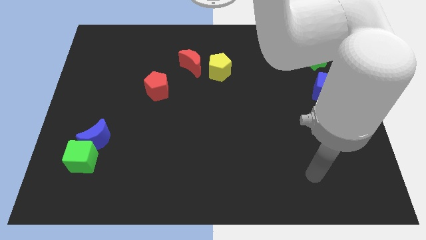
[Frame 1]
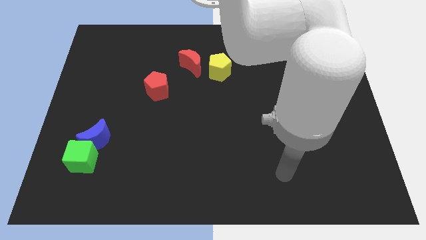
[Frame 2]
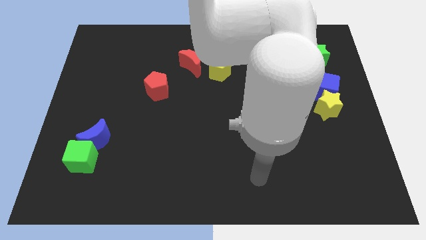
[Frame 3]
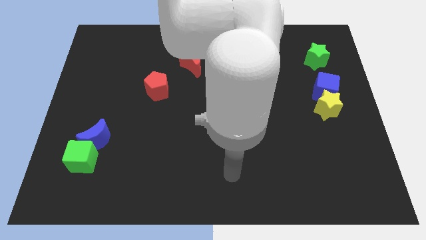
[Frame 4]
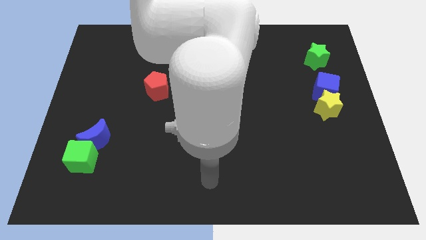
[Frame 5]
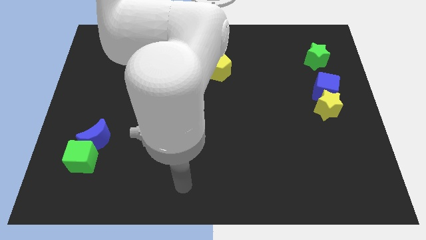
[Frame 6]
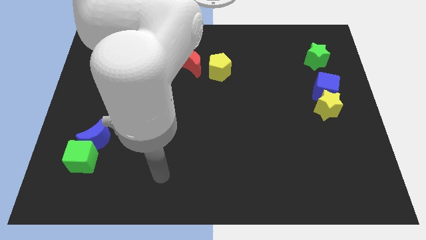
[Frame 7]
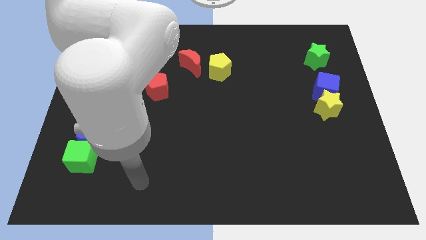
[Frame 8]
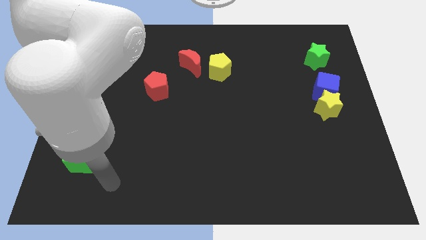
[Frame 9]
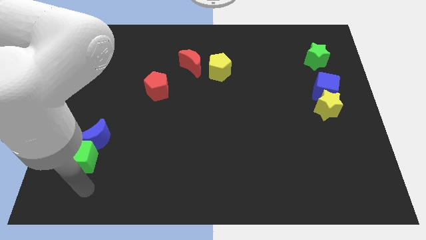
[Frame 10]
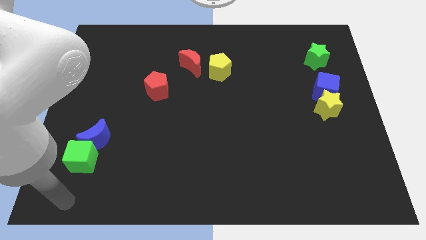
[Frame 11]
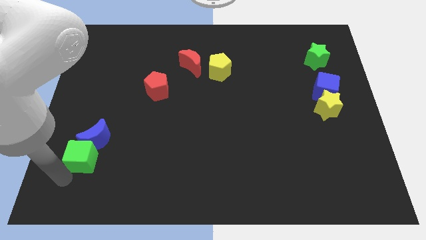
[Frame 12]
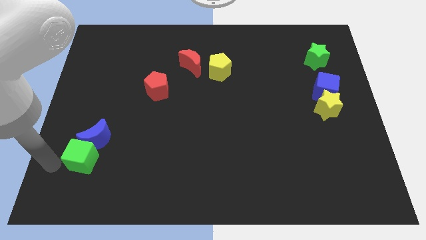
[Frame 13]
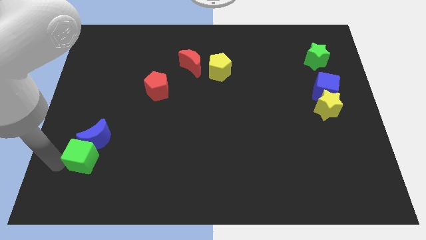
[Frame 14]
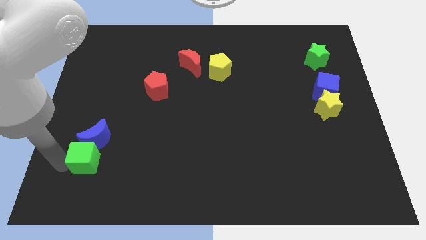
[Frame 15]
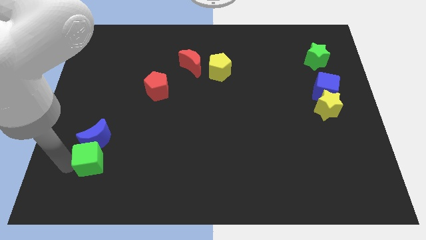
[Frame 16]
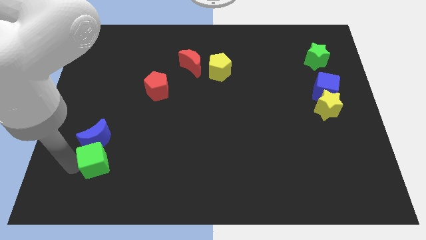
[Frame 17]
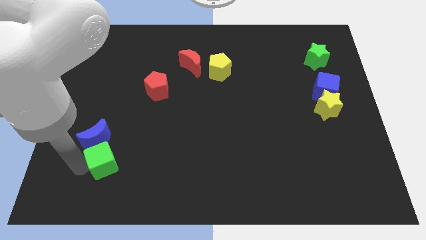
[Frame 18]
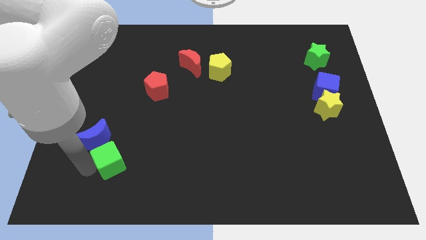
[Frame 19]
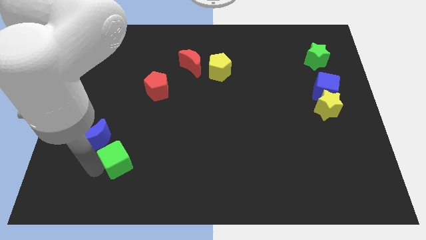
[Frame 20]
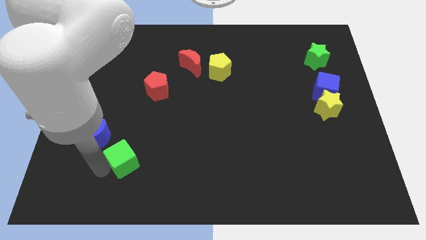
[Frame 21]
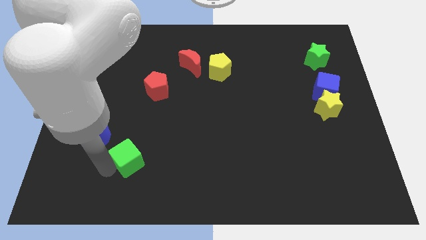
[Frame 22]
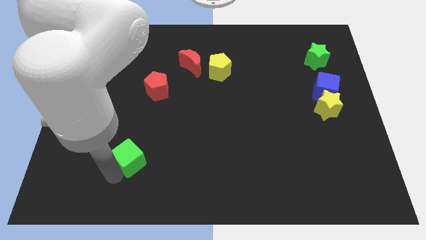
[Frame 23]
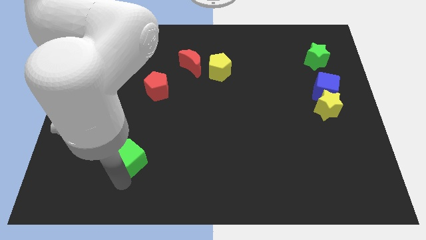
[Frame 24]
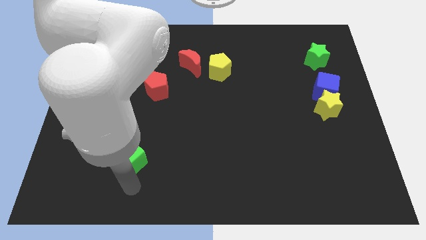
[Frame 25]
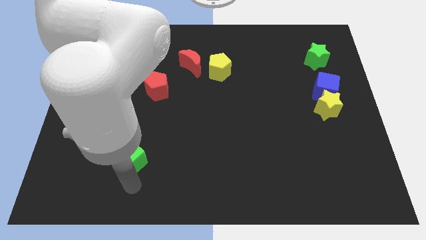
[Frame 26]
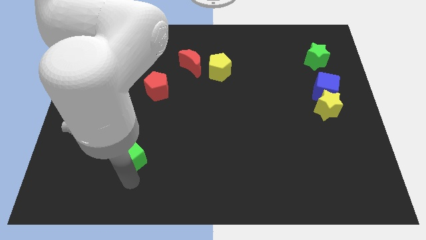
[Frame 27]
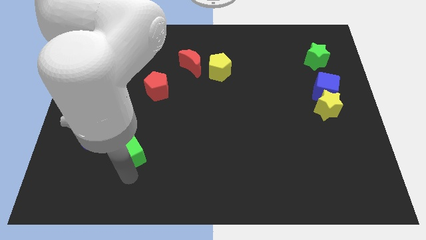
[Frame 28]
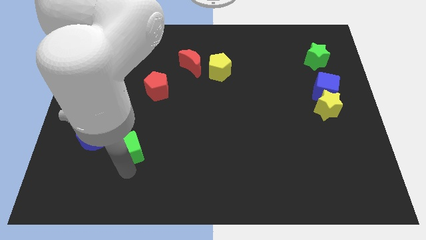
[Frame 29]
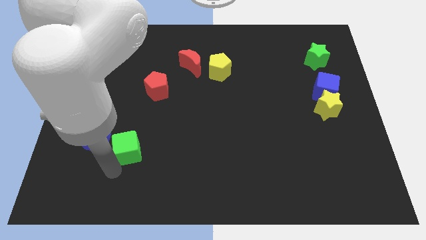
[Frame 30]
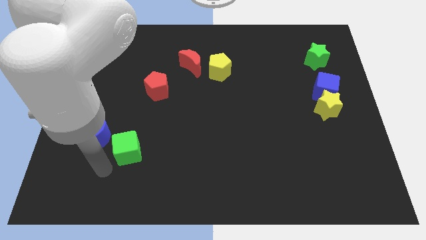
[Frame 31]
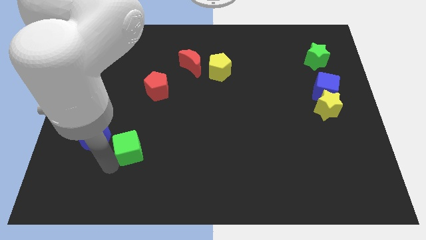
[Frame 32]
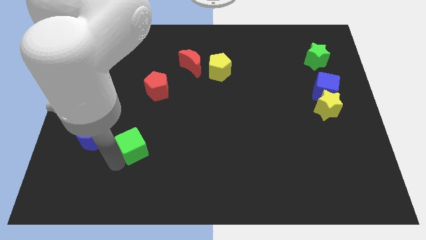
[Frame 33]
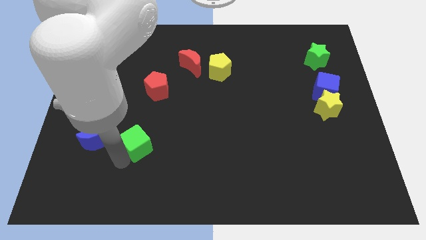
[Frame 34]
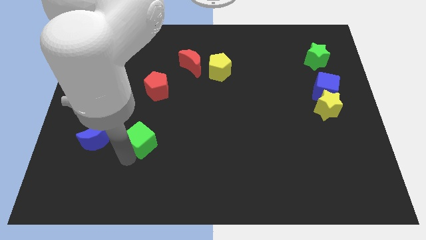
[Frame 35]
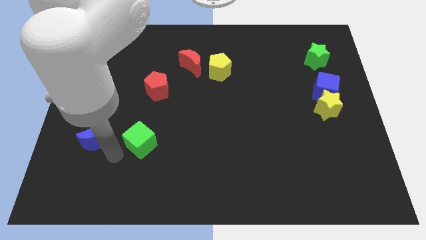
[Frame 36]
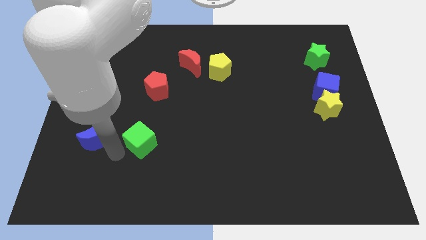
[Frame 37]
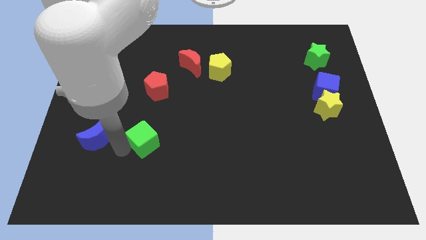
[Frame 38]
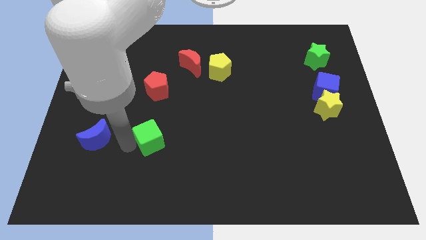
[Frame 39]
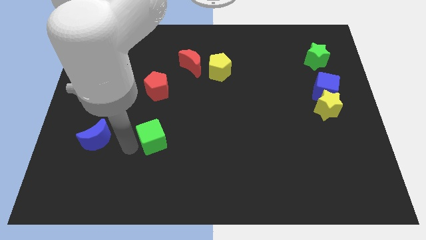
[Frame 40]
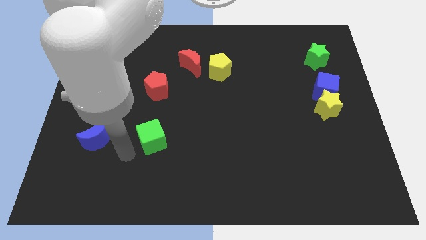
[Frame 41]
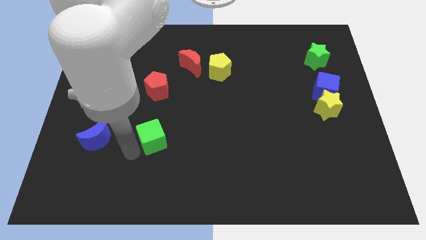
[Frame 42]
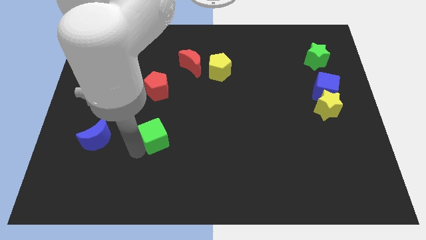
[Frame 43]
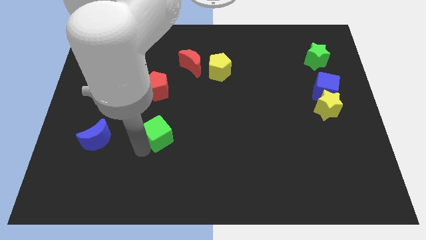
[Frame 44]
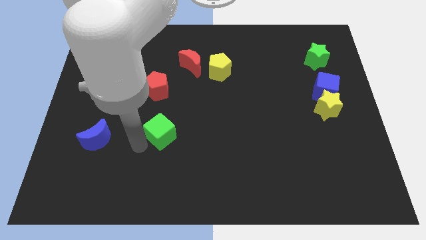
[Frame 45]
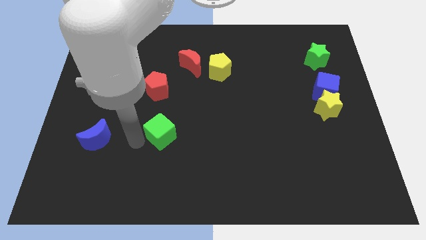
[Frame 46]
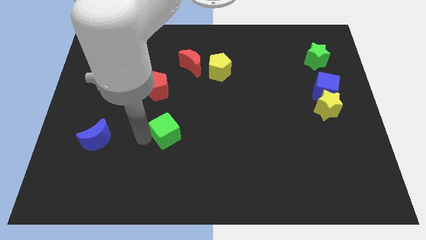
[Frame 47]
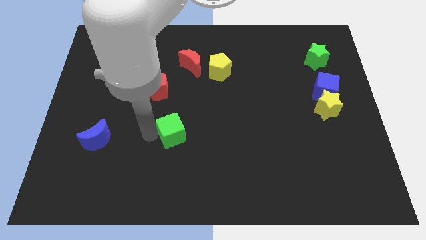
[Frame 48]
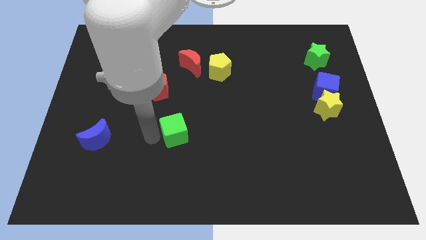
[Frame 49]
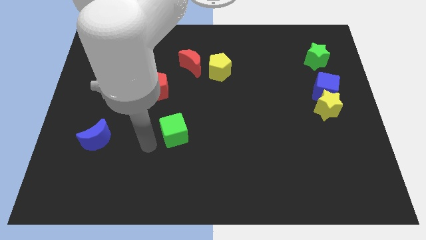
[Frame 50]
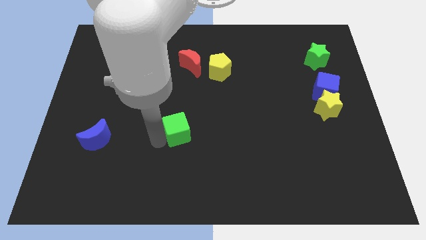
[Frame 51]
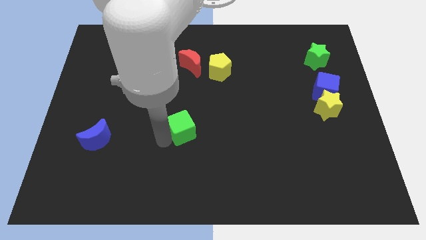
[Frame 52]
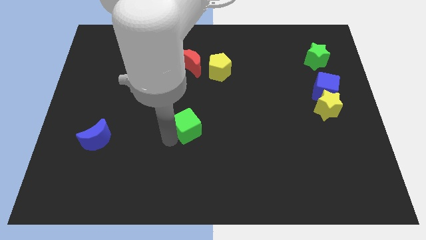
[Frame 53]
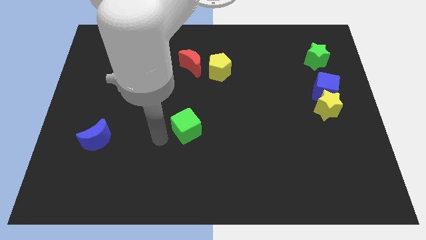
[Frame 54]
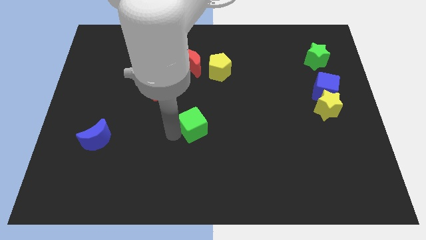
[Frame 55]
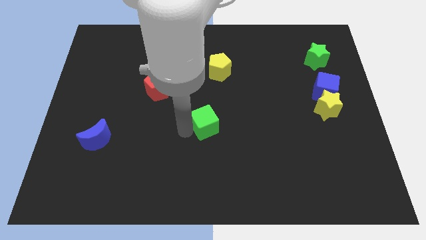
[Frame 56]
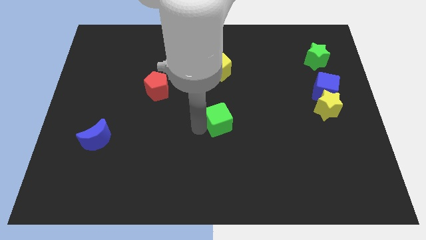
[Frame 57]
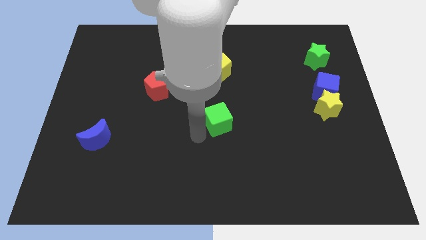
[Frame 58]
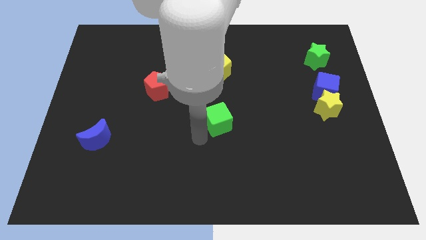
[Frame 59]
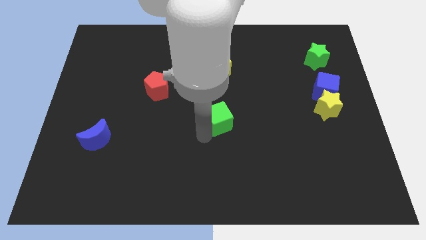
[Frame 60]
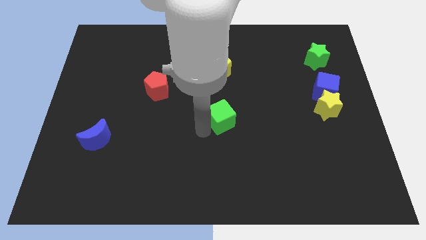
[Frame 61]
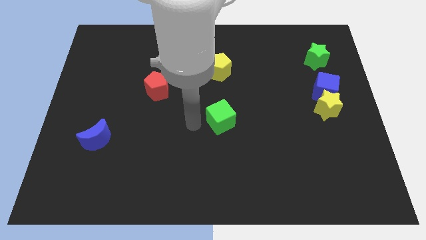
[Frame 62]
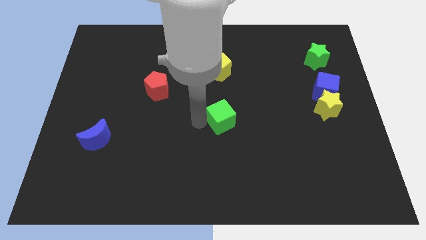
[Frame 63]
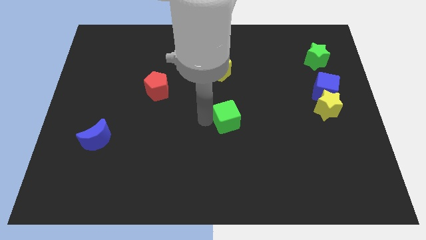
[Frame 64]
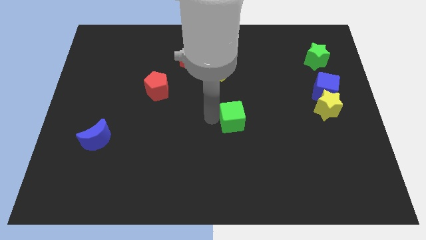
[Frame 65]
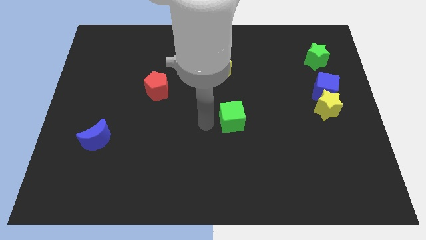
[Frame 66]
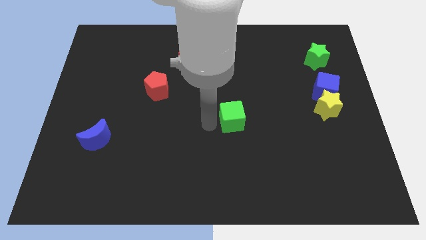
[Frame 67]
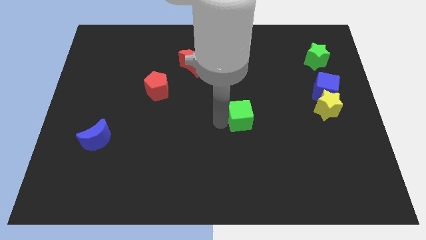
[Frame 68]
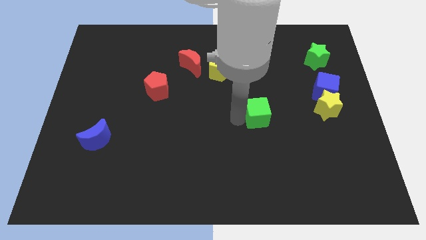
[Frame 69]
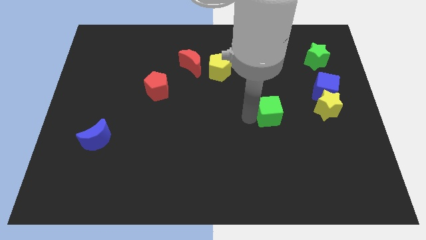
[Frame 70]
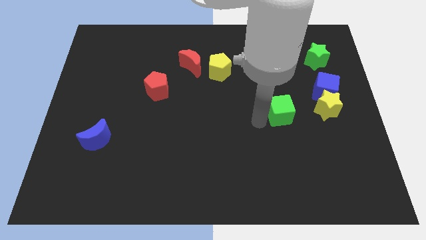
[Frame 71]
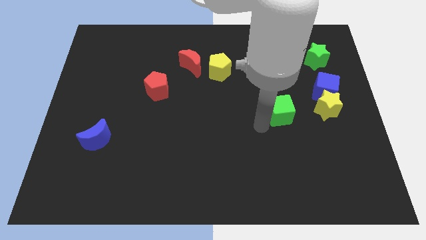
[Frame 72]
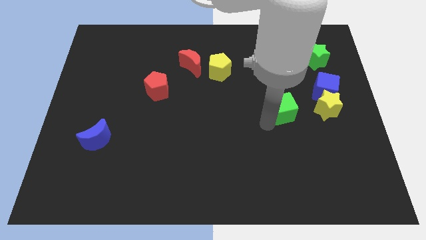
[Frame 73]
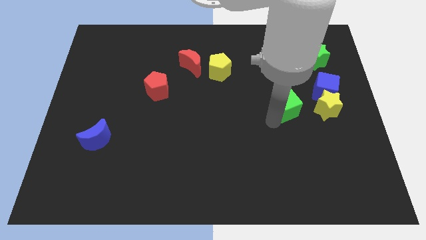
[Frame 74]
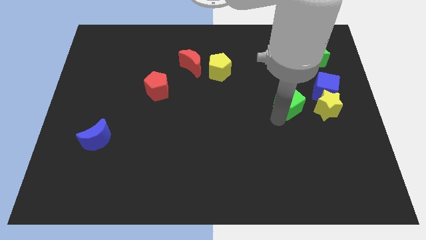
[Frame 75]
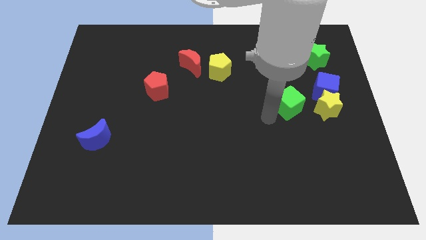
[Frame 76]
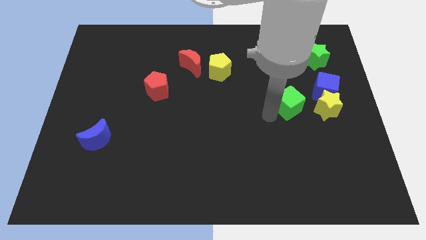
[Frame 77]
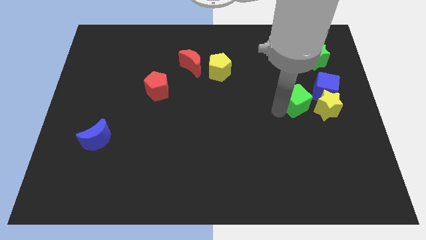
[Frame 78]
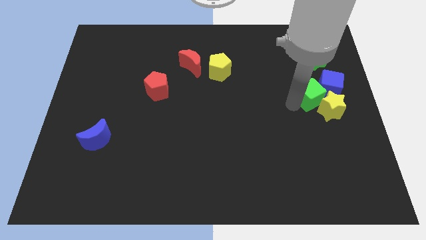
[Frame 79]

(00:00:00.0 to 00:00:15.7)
move the green cube close to the blue cube
